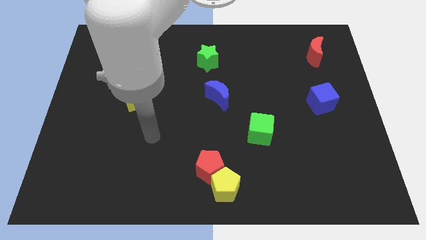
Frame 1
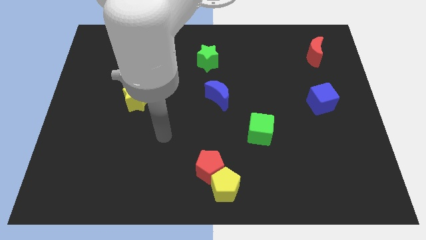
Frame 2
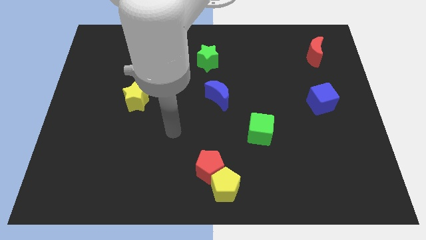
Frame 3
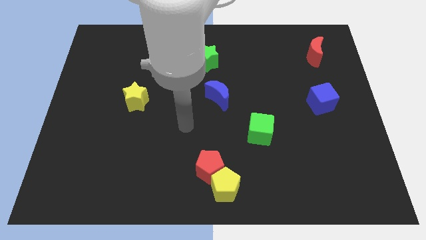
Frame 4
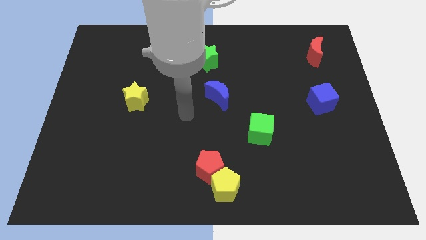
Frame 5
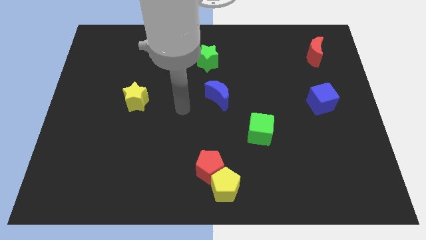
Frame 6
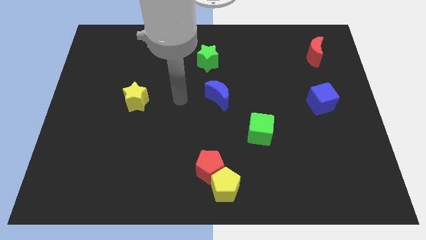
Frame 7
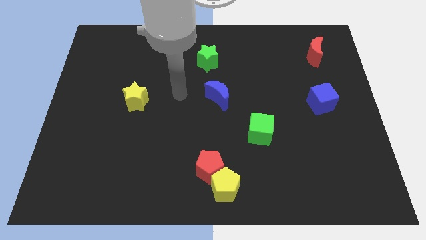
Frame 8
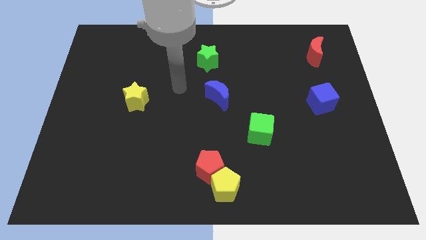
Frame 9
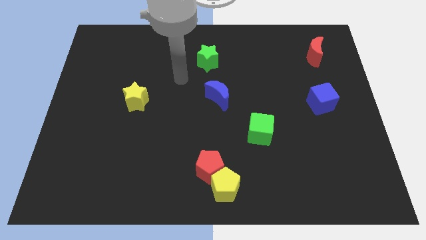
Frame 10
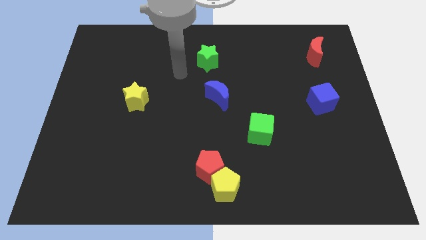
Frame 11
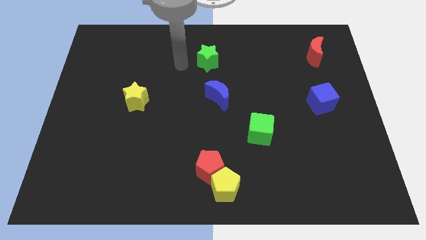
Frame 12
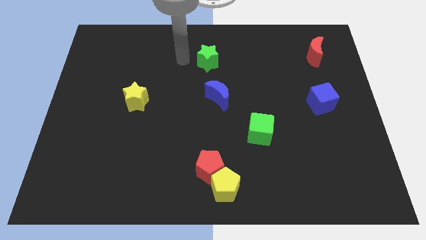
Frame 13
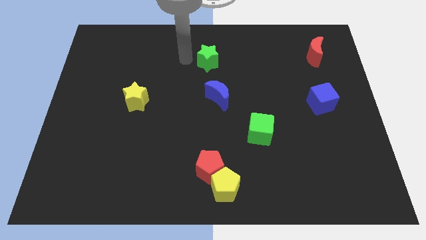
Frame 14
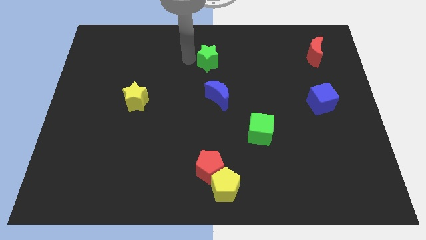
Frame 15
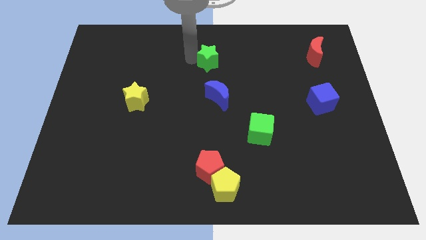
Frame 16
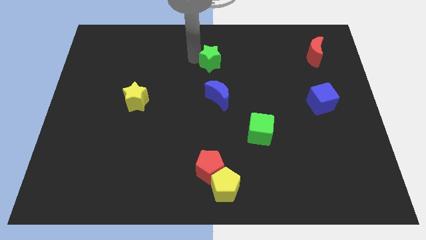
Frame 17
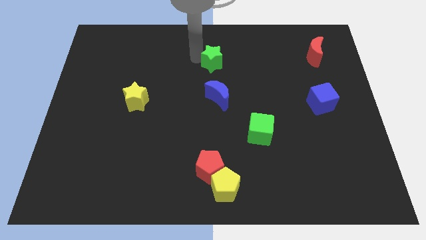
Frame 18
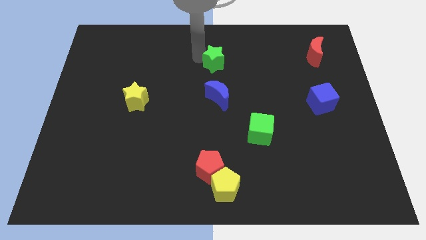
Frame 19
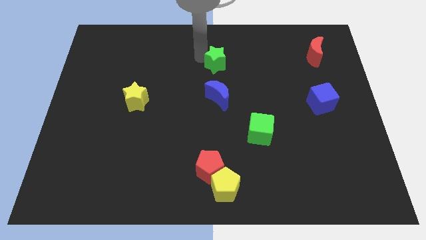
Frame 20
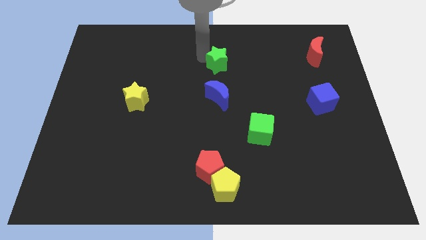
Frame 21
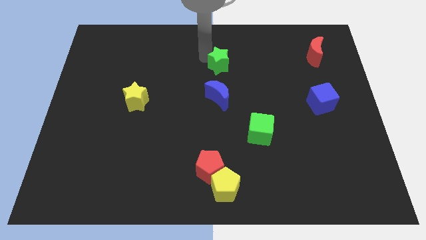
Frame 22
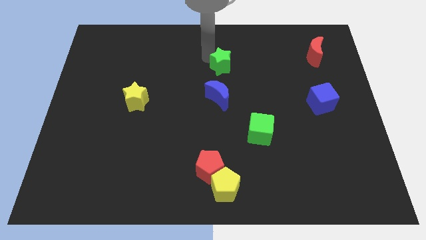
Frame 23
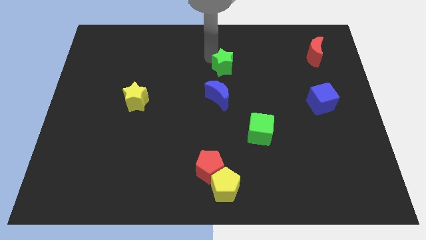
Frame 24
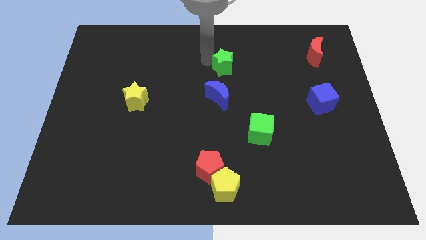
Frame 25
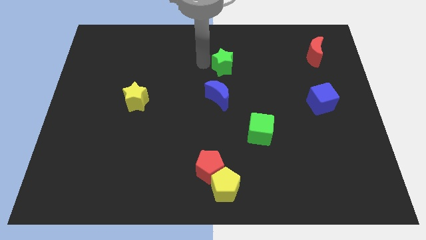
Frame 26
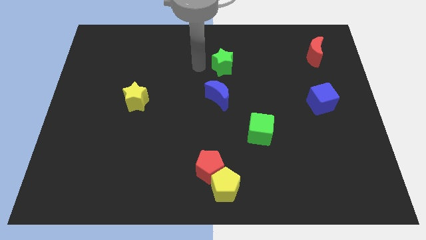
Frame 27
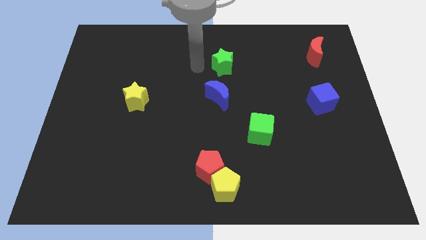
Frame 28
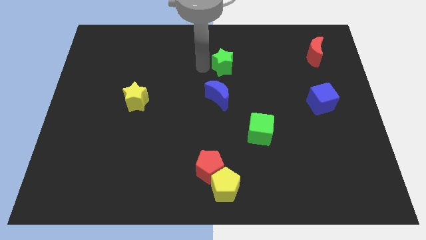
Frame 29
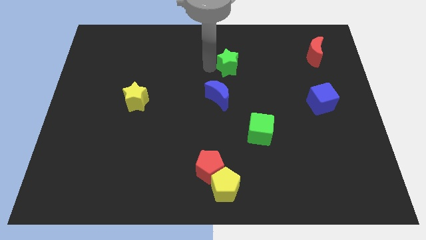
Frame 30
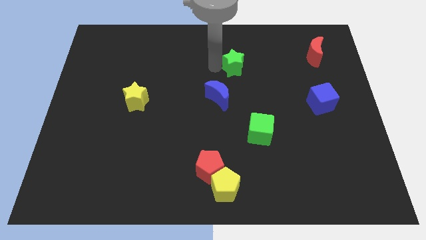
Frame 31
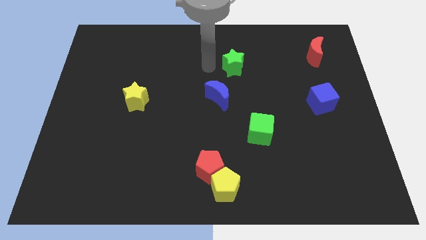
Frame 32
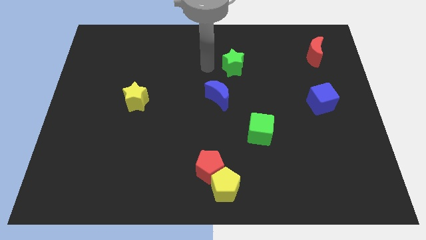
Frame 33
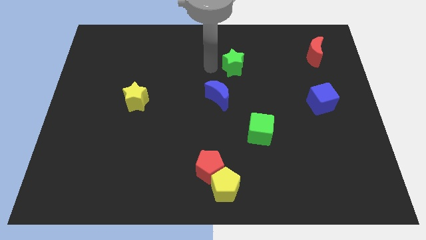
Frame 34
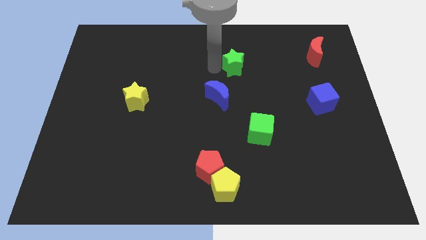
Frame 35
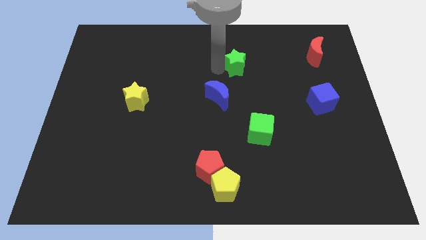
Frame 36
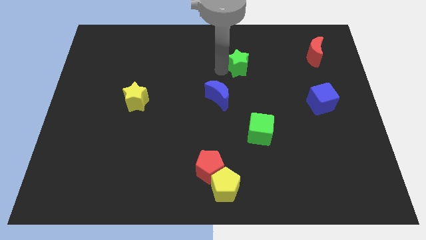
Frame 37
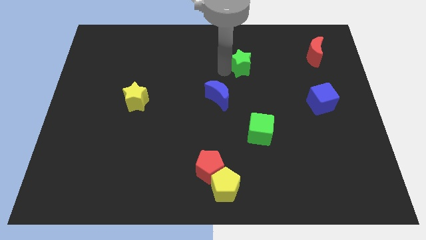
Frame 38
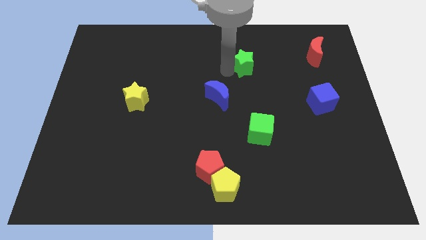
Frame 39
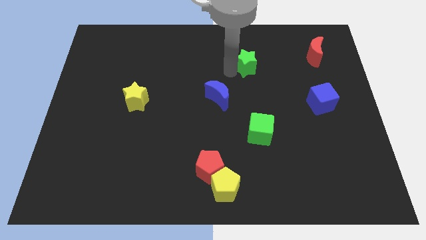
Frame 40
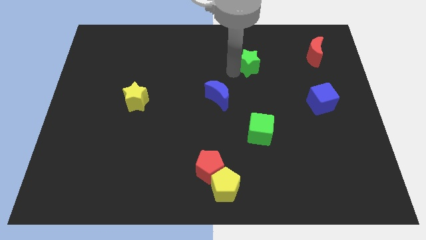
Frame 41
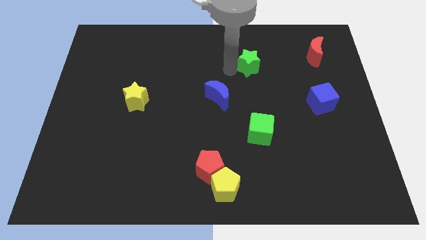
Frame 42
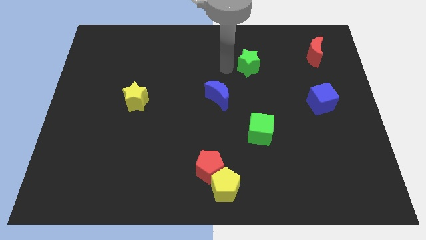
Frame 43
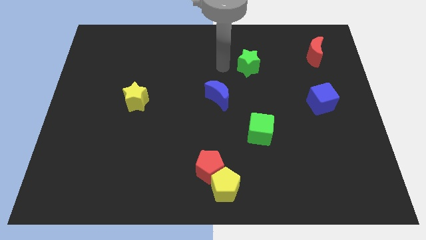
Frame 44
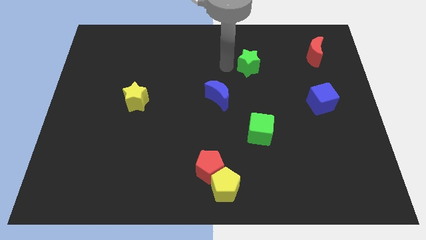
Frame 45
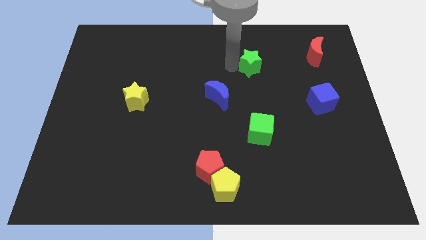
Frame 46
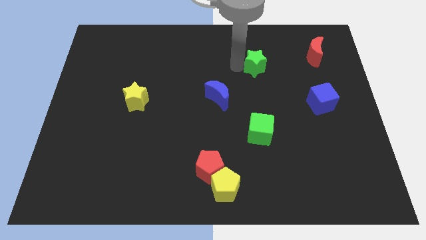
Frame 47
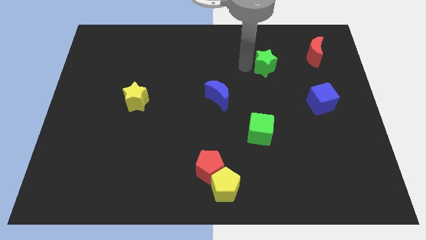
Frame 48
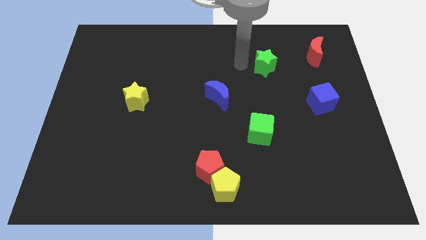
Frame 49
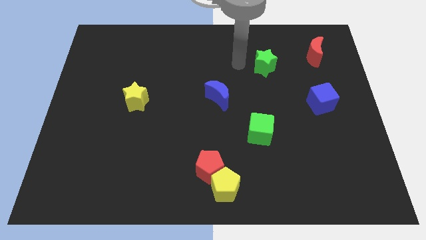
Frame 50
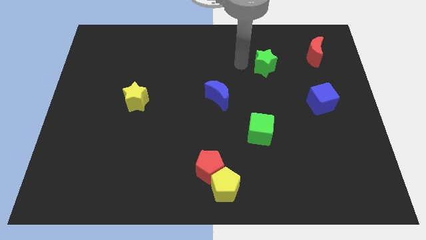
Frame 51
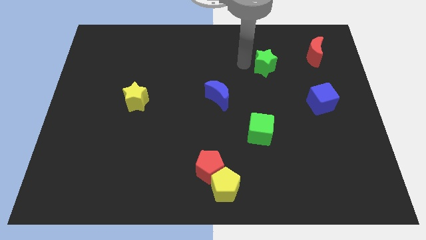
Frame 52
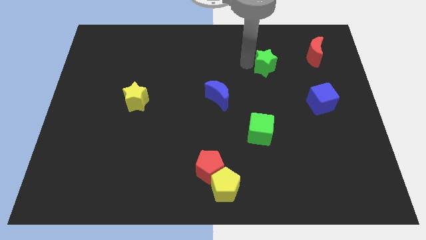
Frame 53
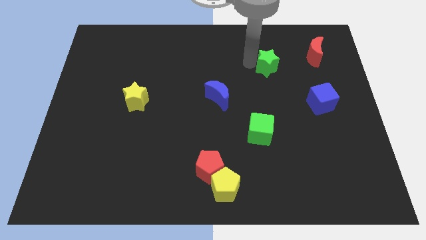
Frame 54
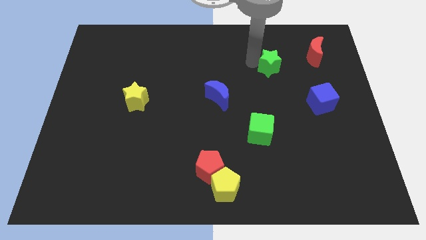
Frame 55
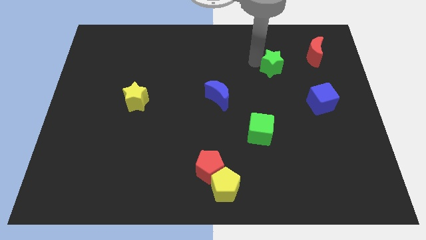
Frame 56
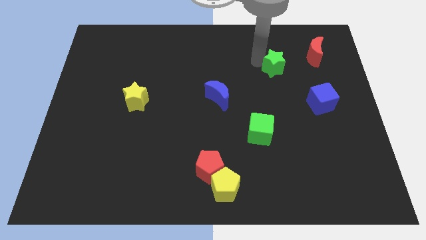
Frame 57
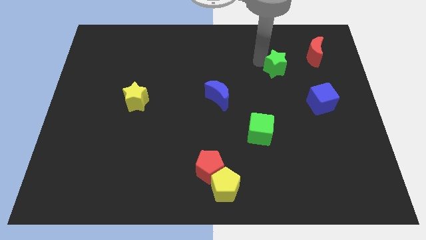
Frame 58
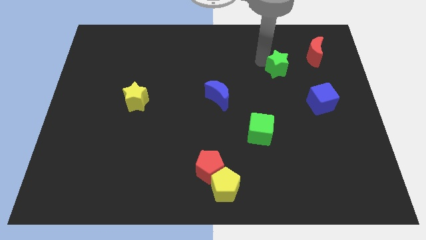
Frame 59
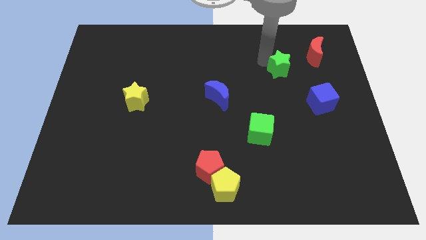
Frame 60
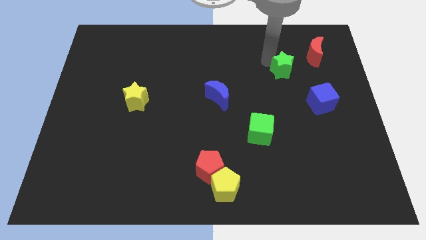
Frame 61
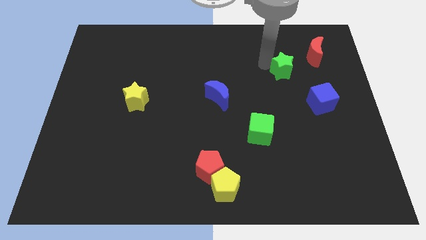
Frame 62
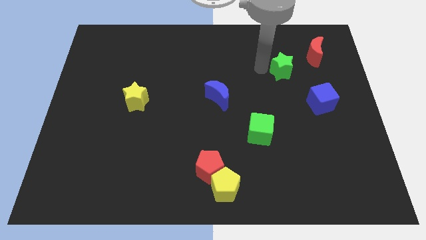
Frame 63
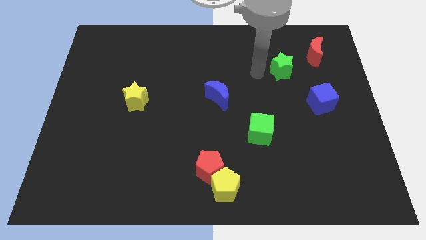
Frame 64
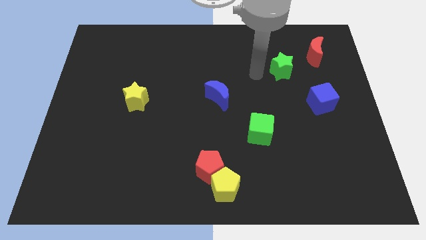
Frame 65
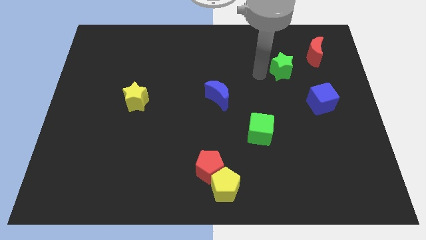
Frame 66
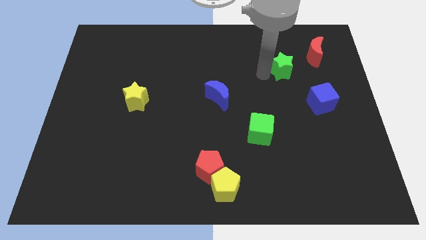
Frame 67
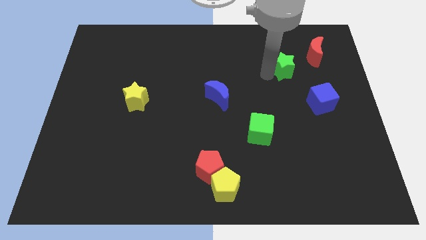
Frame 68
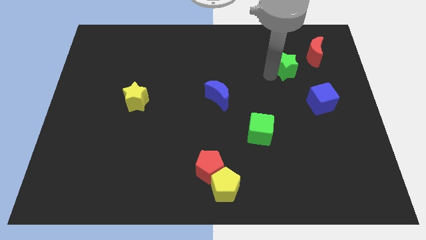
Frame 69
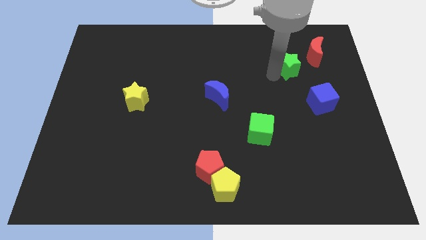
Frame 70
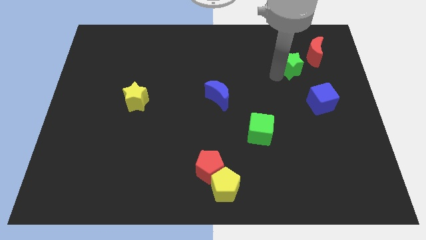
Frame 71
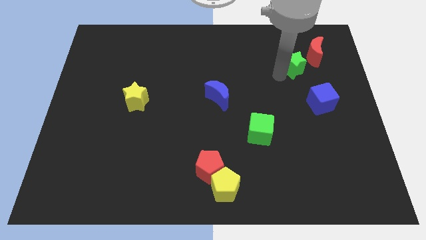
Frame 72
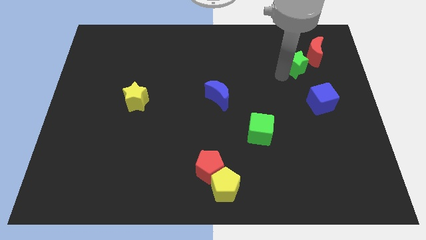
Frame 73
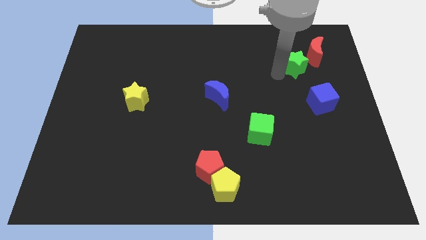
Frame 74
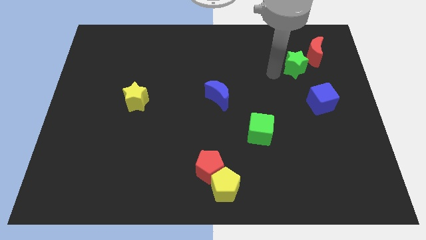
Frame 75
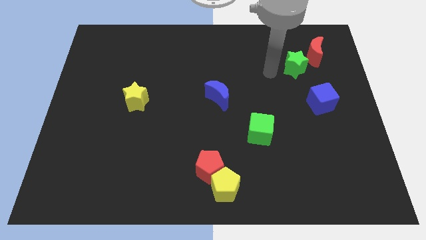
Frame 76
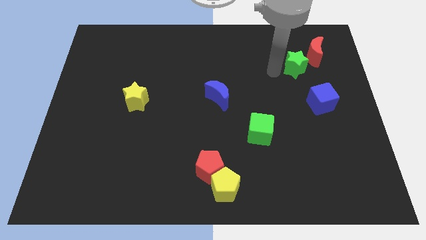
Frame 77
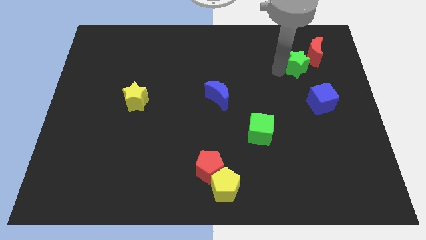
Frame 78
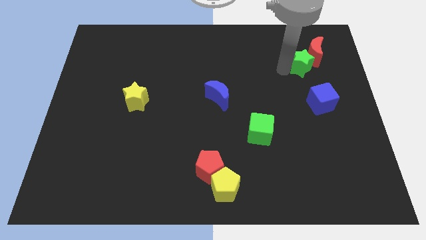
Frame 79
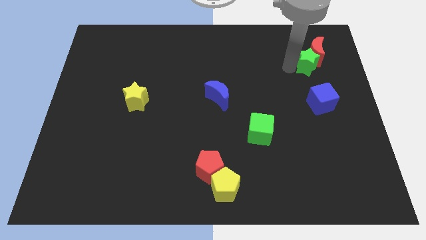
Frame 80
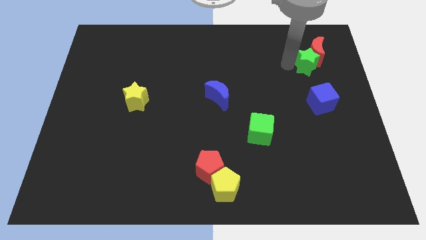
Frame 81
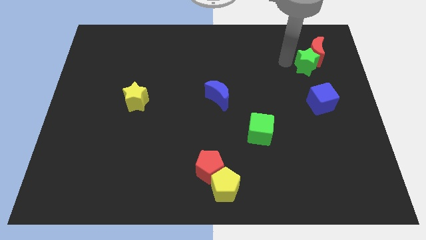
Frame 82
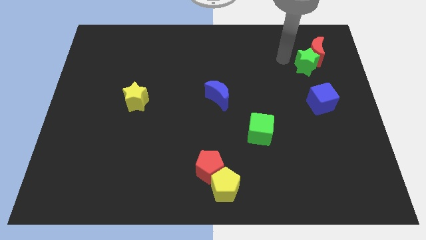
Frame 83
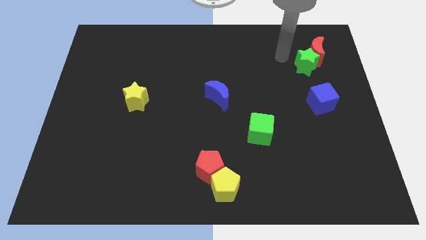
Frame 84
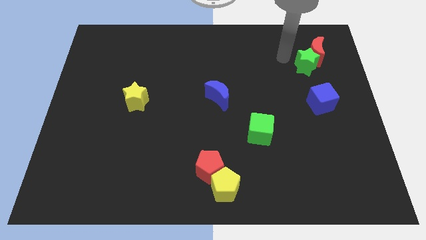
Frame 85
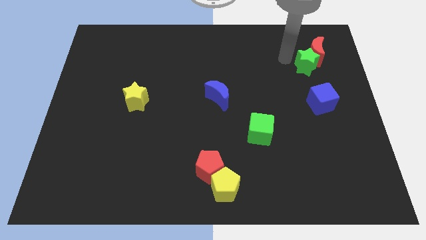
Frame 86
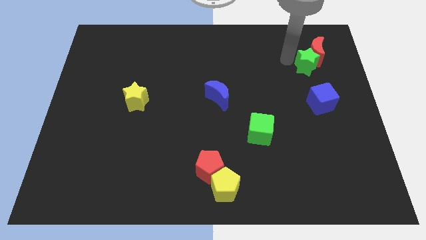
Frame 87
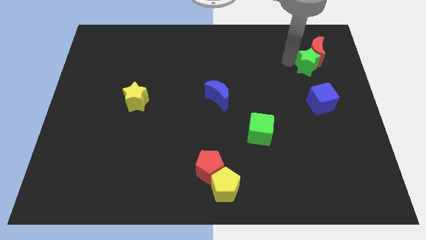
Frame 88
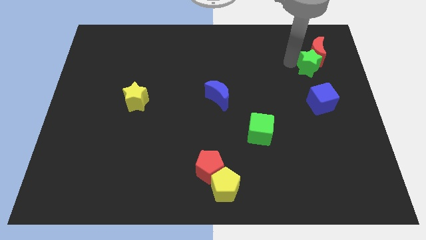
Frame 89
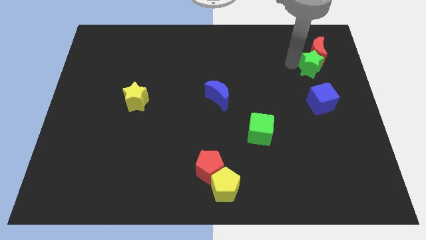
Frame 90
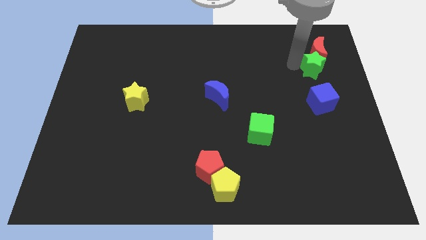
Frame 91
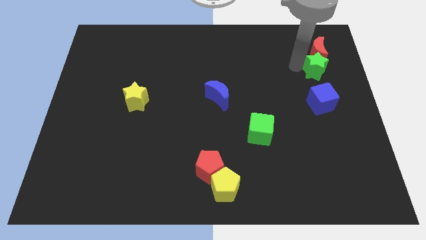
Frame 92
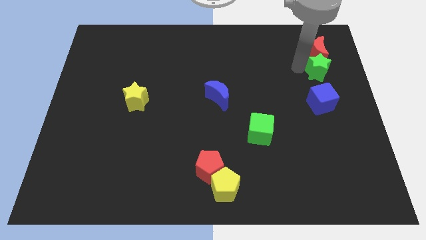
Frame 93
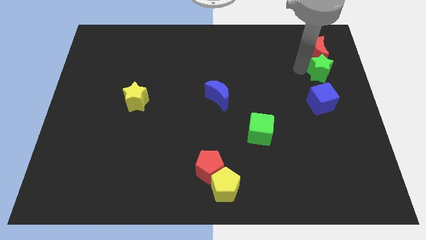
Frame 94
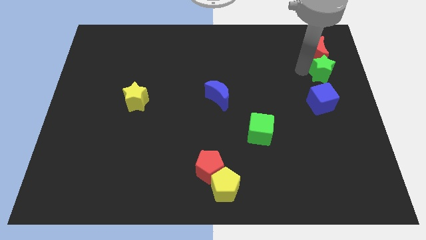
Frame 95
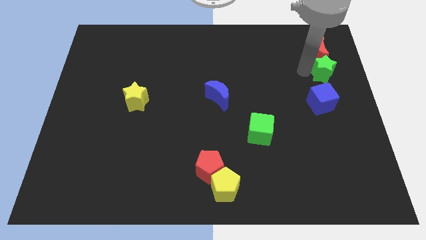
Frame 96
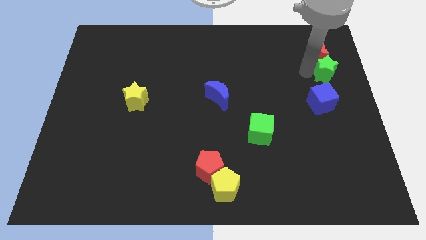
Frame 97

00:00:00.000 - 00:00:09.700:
put the green star to the center right
